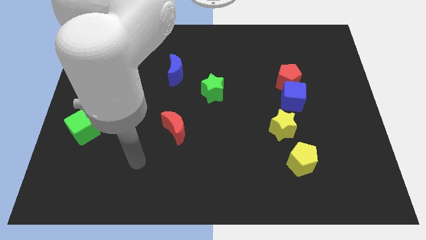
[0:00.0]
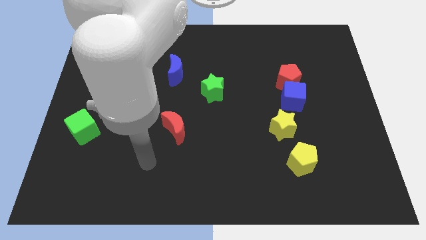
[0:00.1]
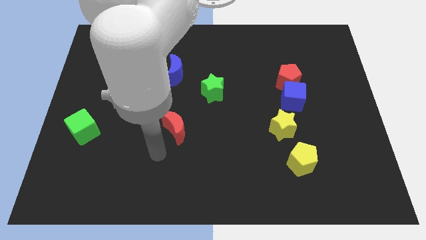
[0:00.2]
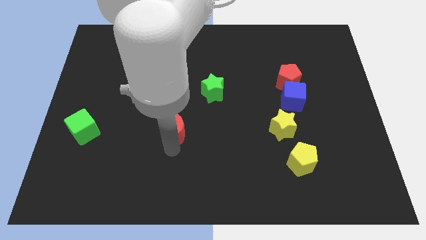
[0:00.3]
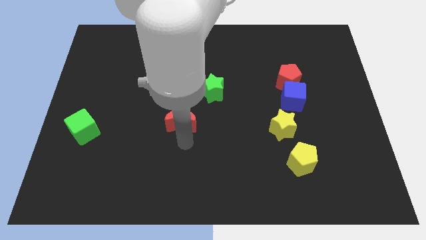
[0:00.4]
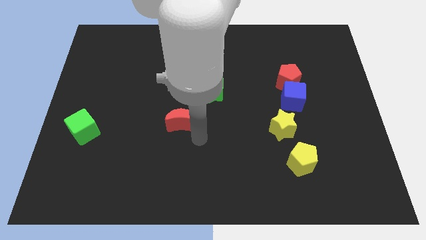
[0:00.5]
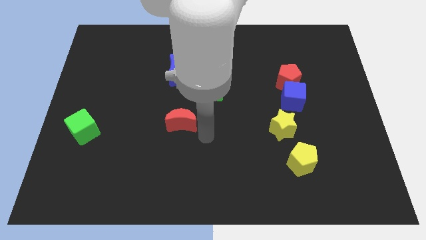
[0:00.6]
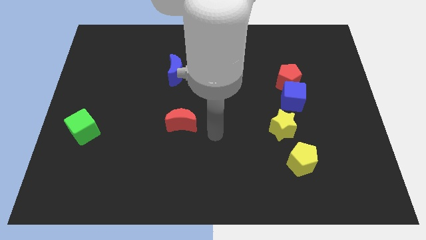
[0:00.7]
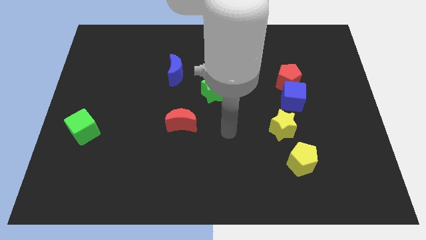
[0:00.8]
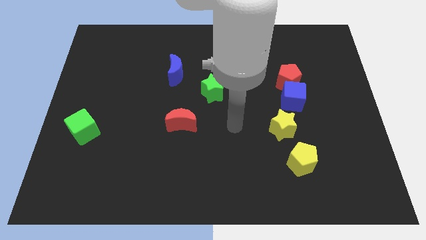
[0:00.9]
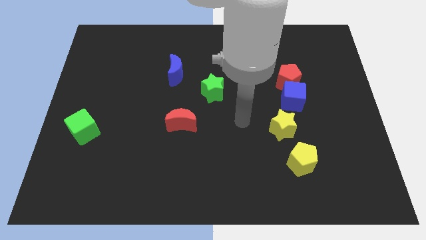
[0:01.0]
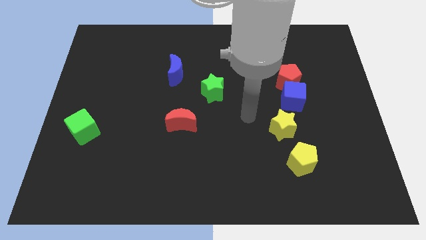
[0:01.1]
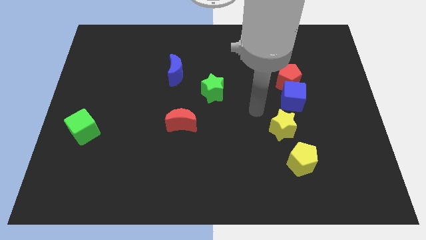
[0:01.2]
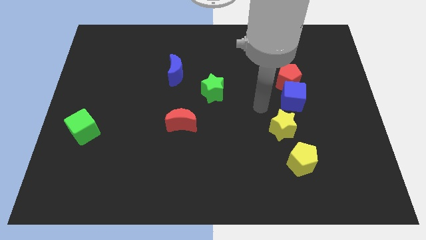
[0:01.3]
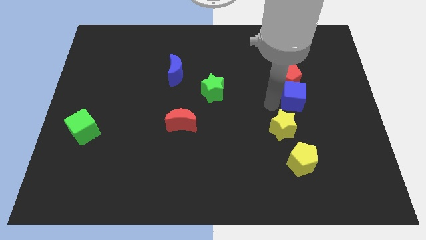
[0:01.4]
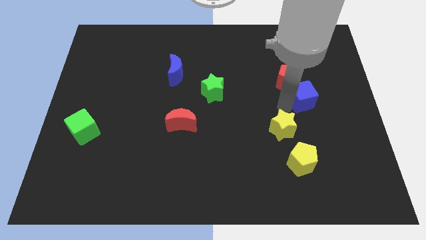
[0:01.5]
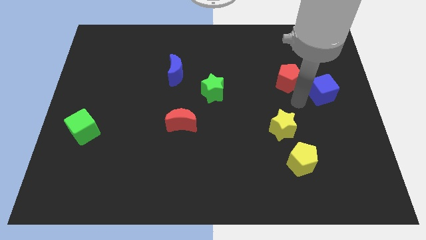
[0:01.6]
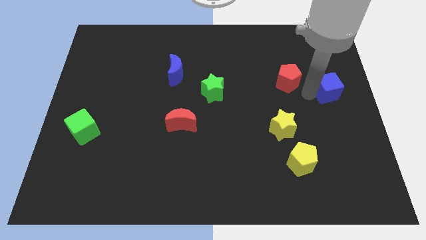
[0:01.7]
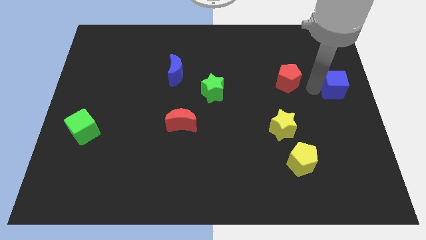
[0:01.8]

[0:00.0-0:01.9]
separate the red pentagon from the blue cube

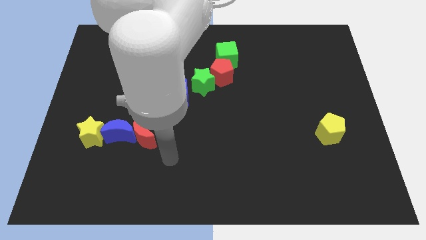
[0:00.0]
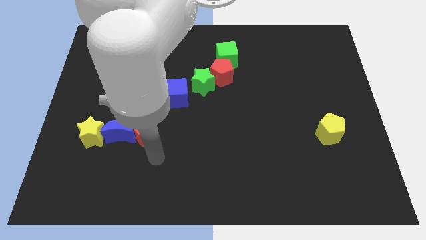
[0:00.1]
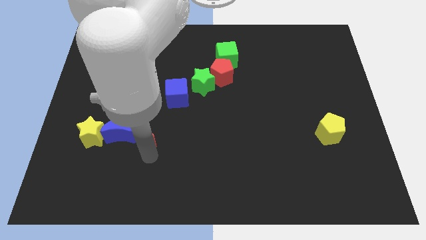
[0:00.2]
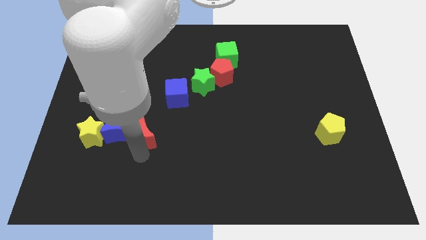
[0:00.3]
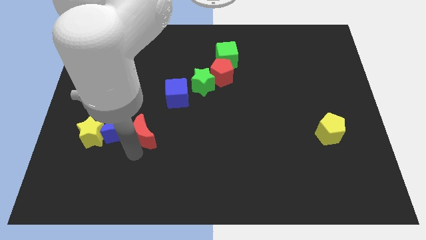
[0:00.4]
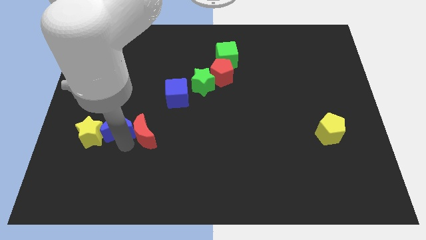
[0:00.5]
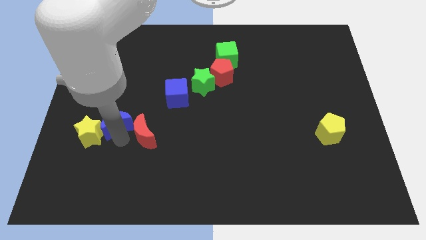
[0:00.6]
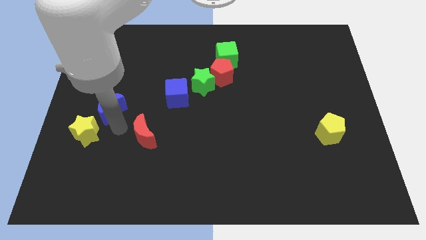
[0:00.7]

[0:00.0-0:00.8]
move the red moon away from the blue moon

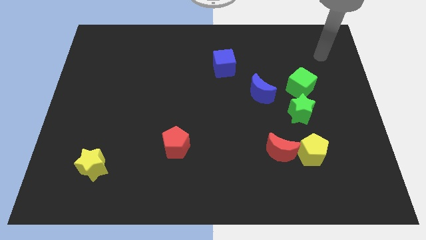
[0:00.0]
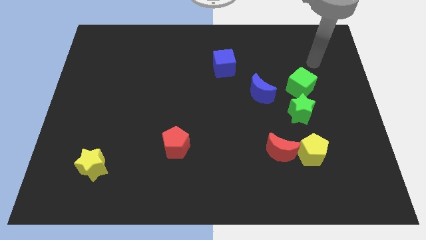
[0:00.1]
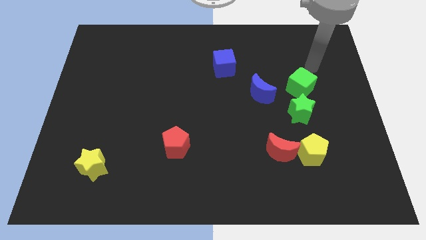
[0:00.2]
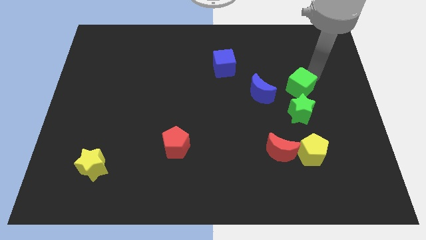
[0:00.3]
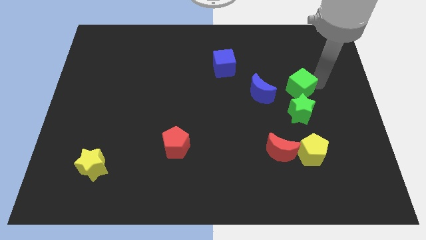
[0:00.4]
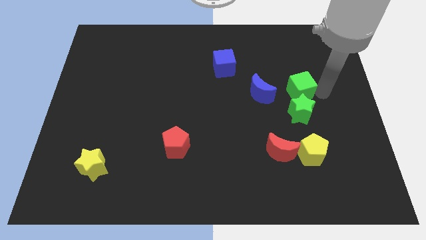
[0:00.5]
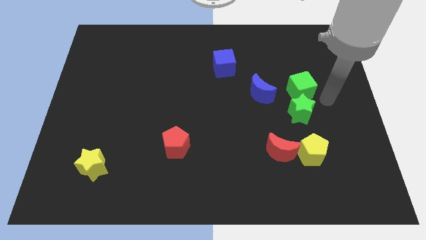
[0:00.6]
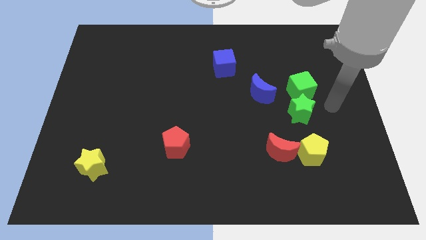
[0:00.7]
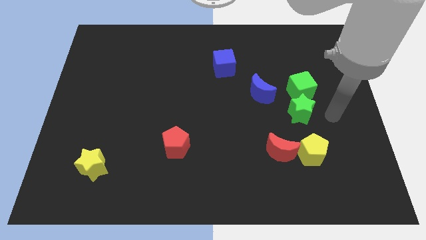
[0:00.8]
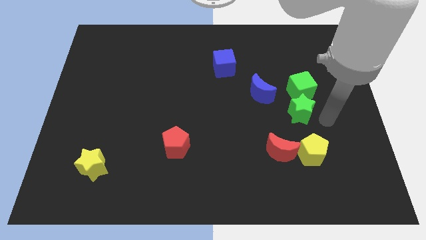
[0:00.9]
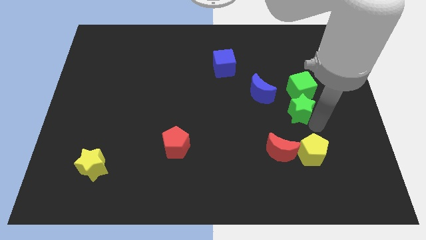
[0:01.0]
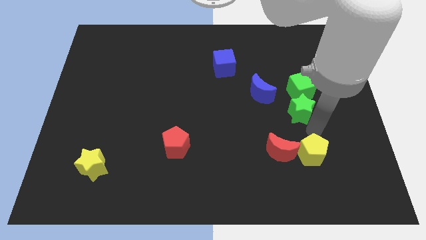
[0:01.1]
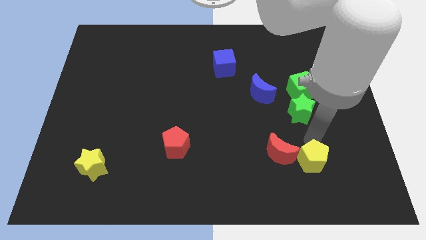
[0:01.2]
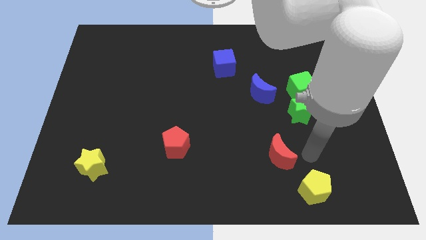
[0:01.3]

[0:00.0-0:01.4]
separate the red moon from the yellow pentagon

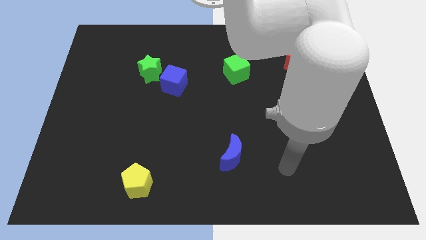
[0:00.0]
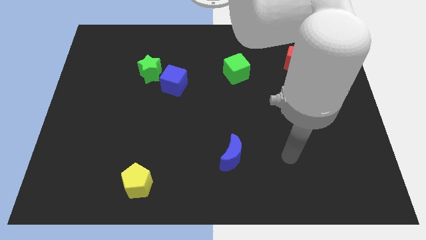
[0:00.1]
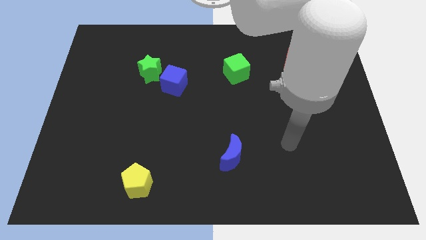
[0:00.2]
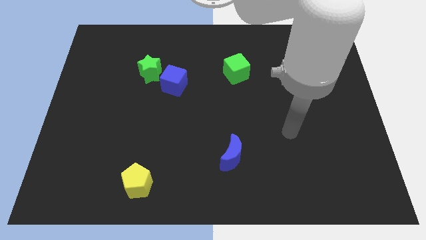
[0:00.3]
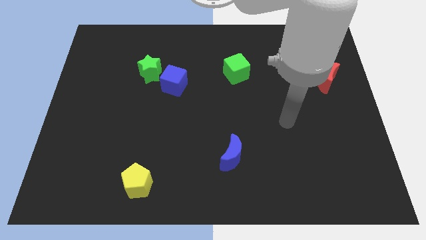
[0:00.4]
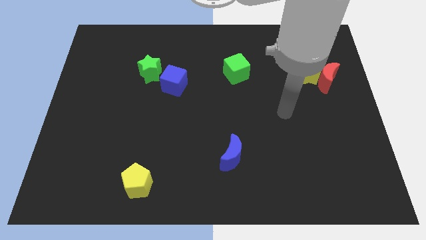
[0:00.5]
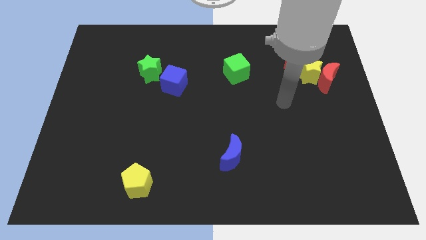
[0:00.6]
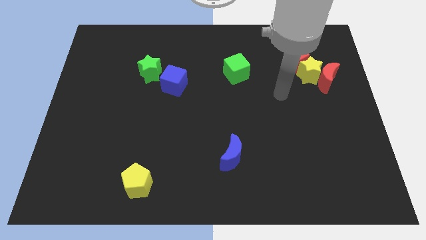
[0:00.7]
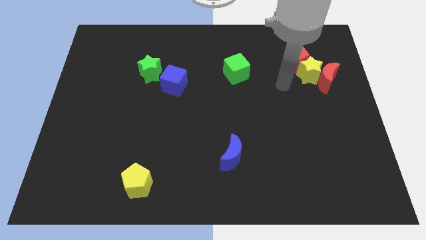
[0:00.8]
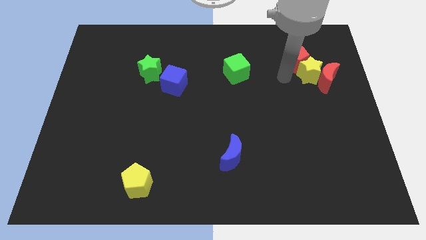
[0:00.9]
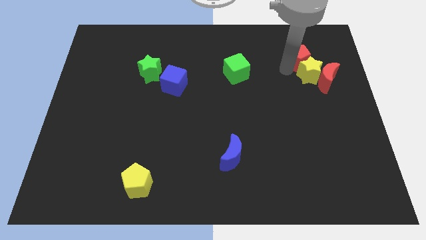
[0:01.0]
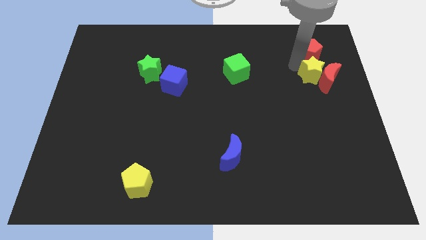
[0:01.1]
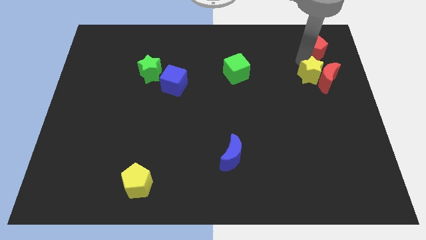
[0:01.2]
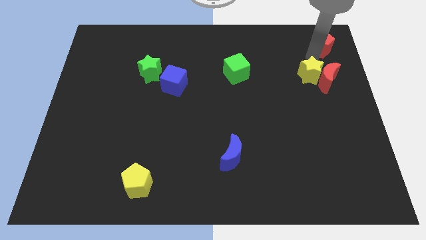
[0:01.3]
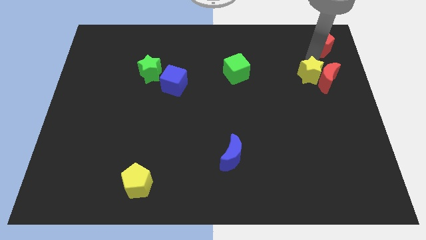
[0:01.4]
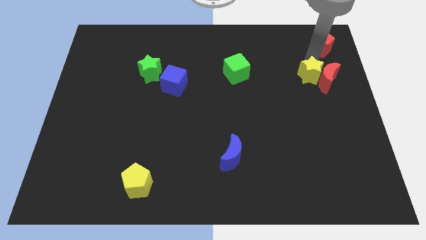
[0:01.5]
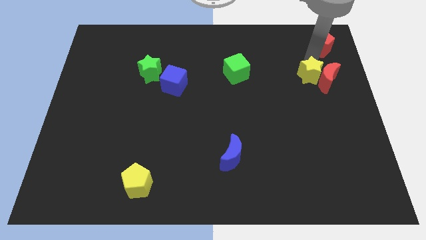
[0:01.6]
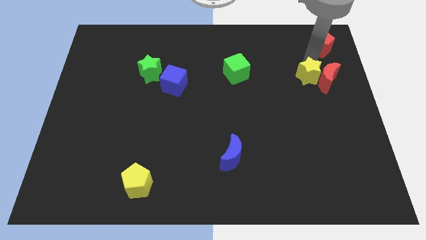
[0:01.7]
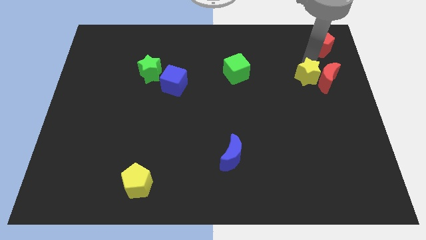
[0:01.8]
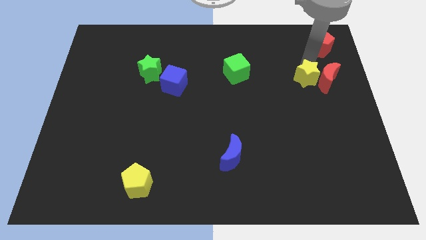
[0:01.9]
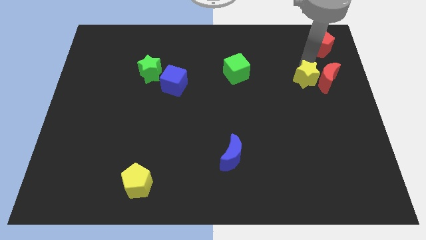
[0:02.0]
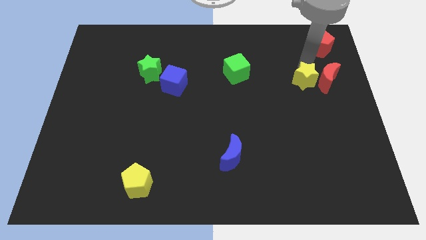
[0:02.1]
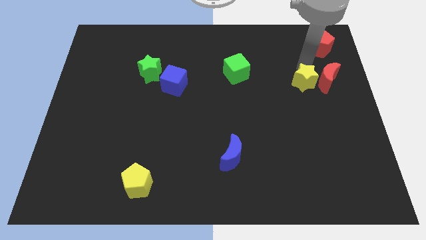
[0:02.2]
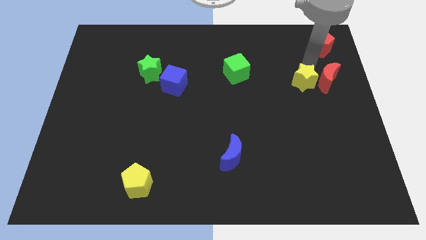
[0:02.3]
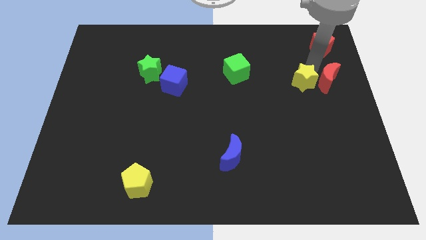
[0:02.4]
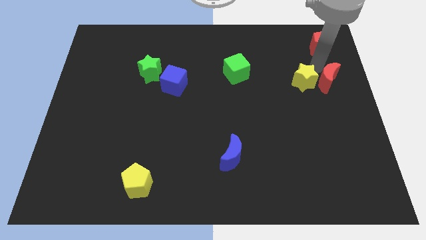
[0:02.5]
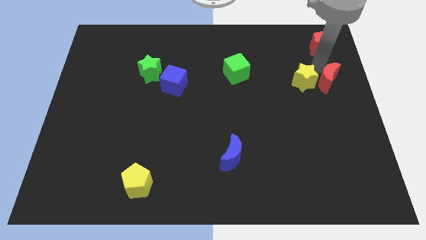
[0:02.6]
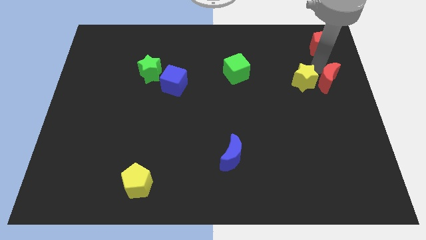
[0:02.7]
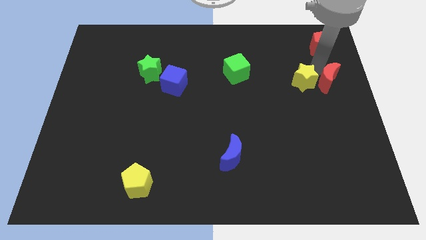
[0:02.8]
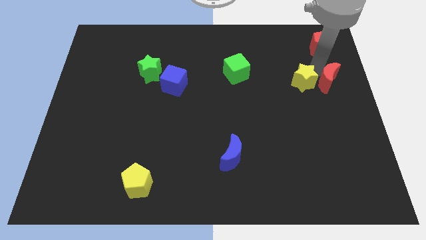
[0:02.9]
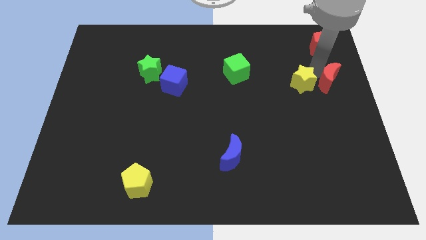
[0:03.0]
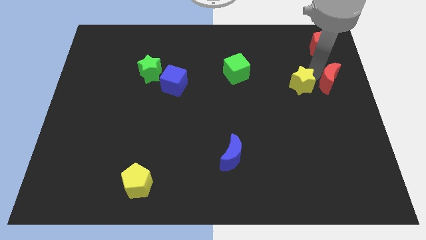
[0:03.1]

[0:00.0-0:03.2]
pull the yellow star apart from the red moon and red pentagon

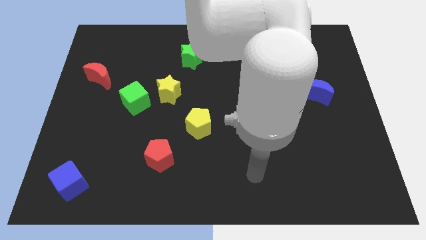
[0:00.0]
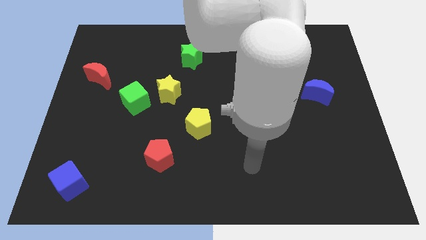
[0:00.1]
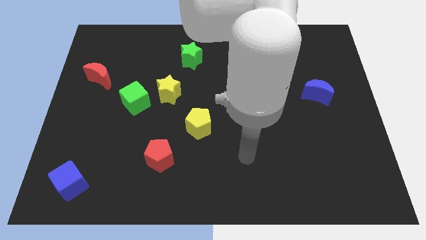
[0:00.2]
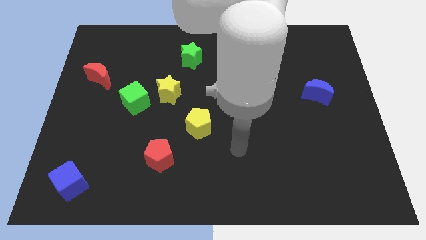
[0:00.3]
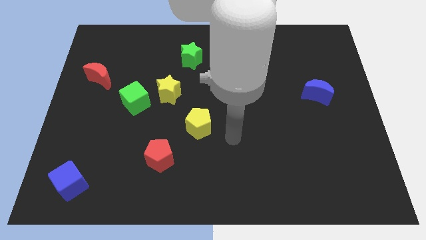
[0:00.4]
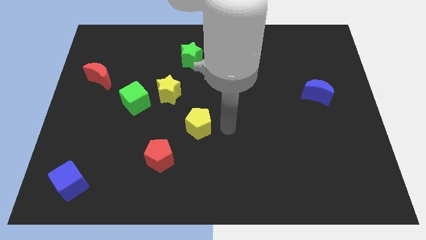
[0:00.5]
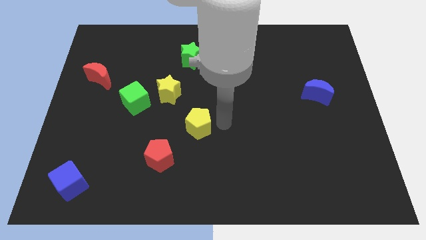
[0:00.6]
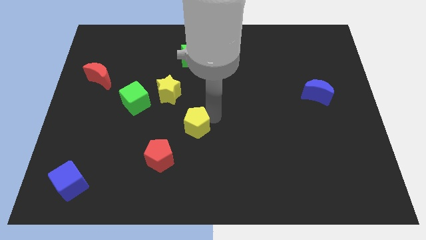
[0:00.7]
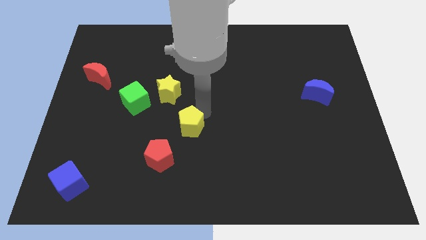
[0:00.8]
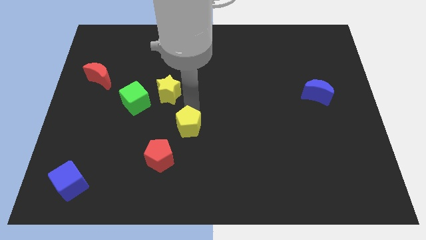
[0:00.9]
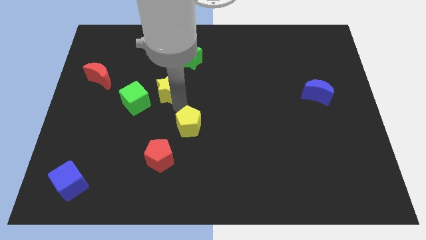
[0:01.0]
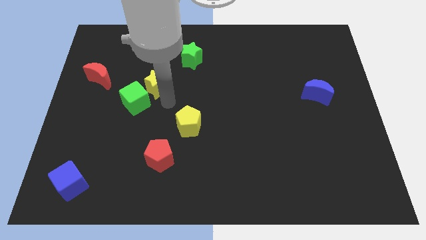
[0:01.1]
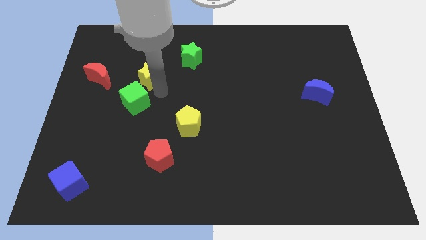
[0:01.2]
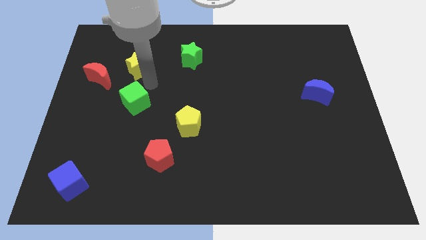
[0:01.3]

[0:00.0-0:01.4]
pull the green cube apart from the yellow star

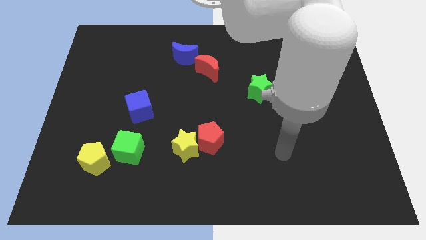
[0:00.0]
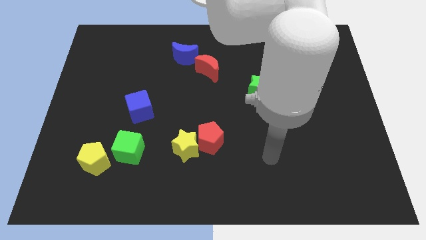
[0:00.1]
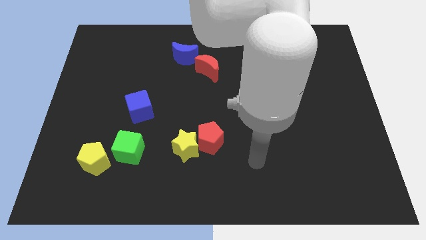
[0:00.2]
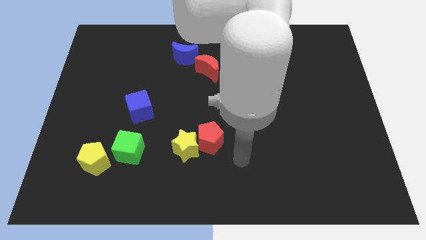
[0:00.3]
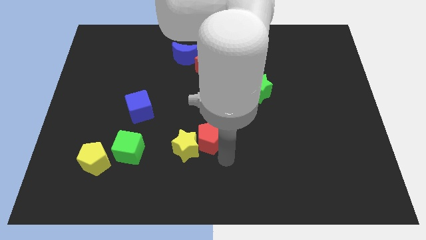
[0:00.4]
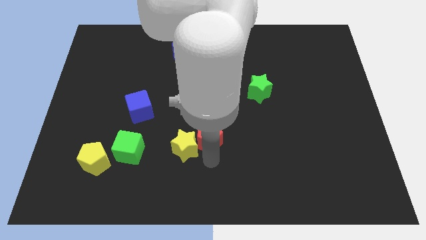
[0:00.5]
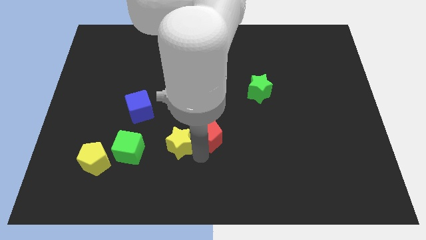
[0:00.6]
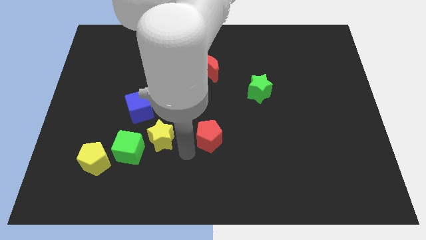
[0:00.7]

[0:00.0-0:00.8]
pull the red pentagon apart from the yellow star
